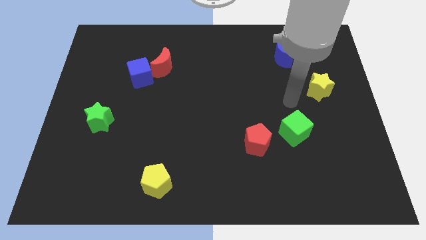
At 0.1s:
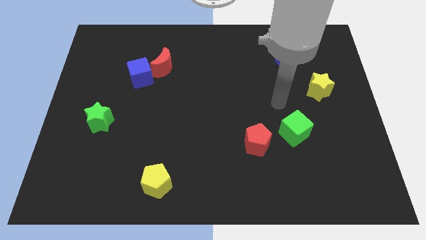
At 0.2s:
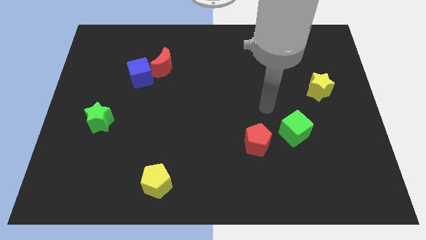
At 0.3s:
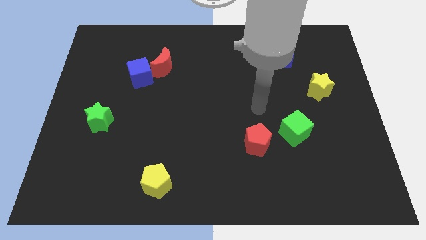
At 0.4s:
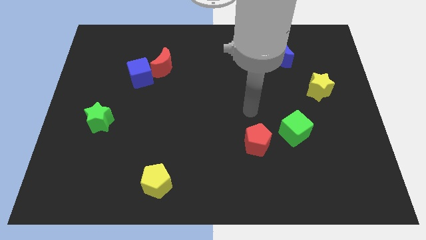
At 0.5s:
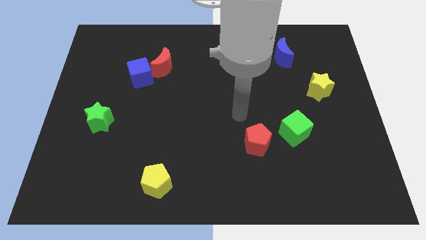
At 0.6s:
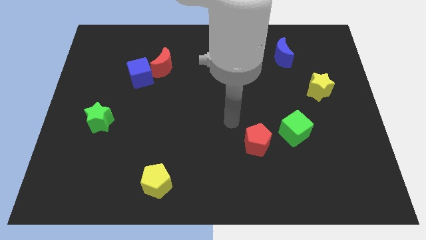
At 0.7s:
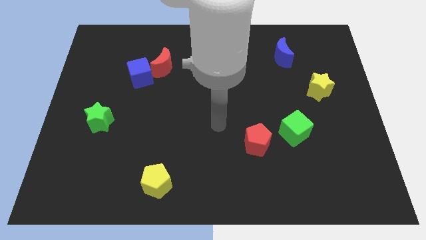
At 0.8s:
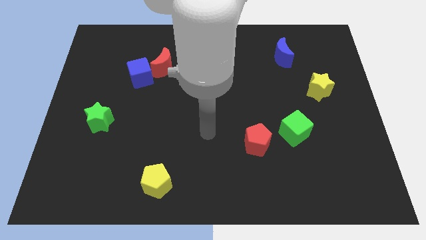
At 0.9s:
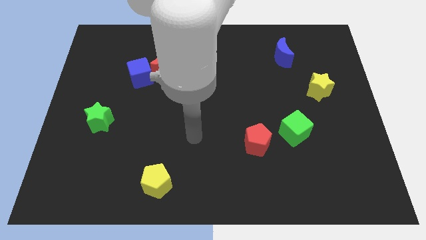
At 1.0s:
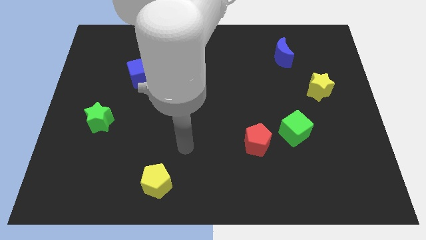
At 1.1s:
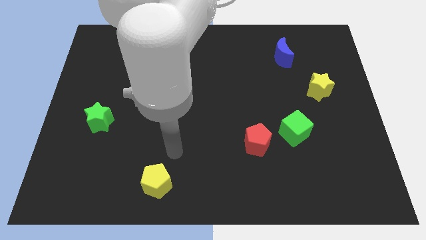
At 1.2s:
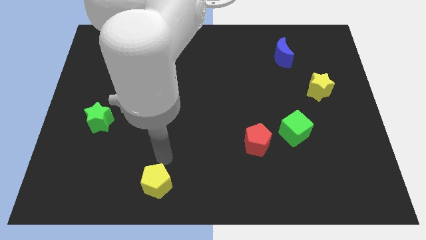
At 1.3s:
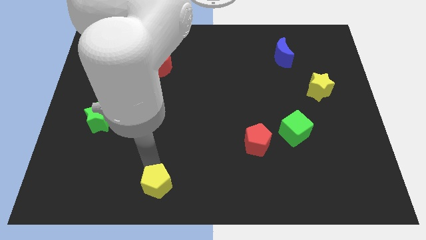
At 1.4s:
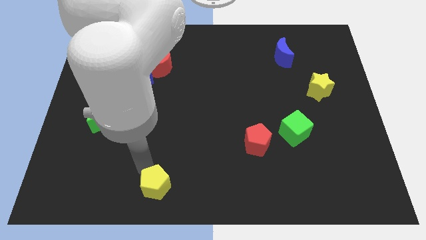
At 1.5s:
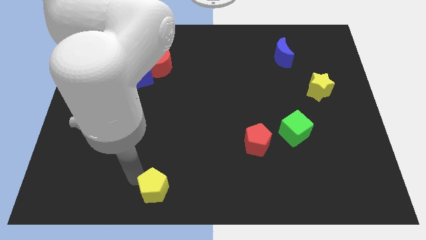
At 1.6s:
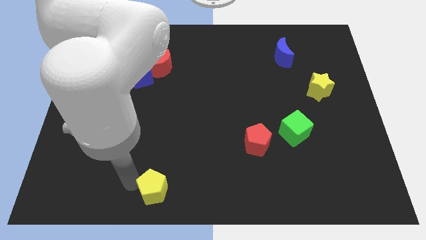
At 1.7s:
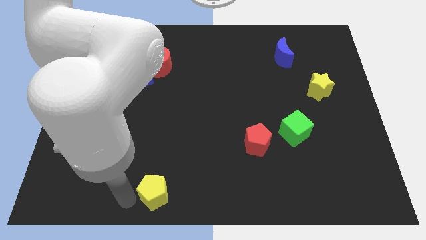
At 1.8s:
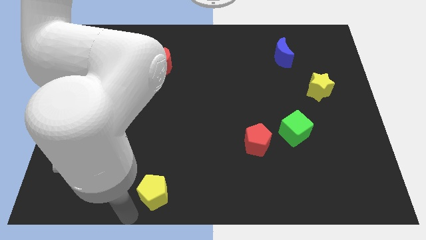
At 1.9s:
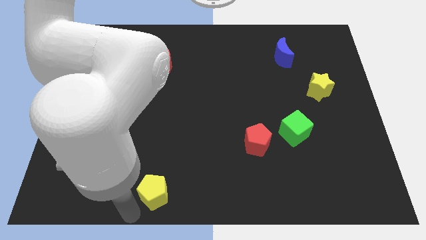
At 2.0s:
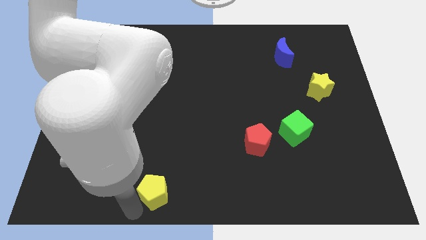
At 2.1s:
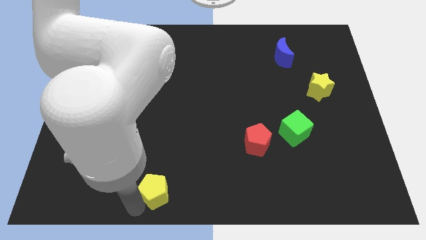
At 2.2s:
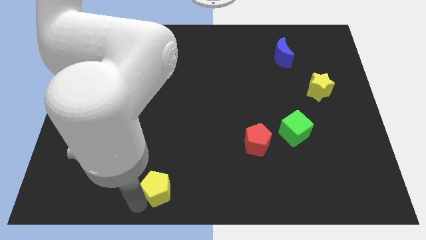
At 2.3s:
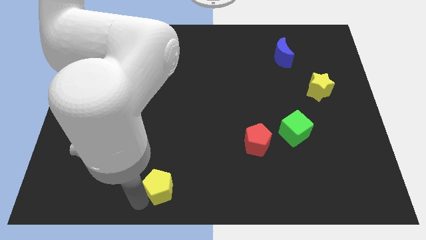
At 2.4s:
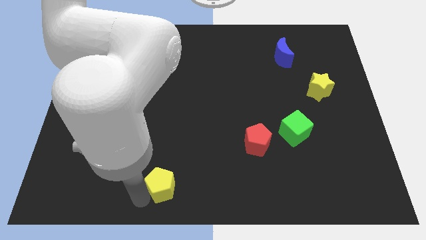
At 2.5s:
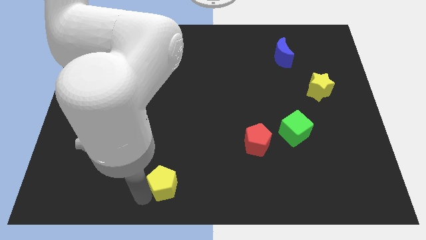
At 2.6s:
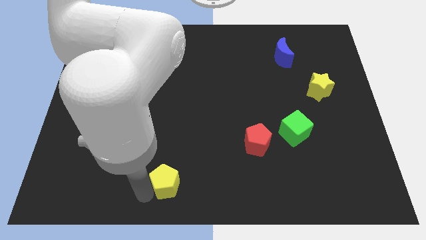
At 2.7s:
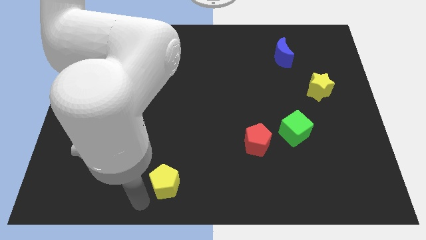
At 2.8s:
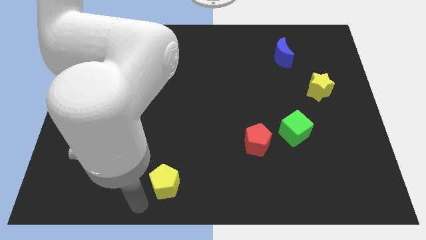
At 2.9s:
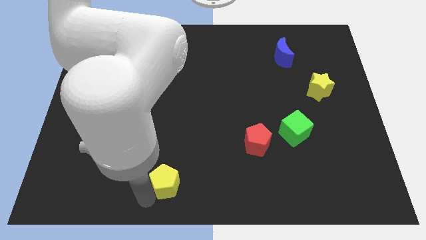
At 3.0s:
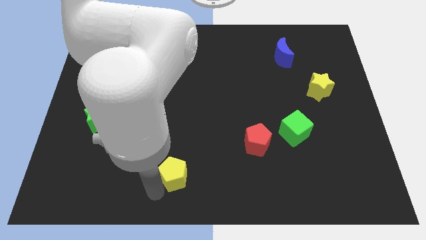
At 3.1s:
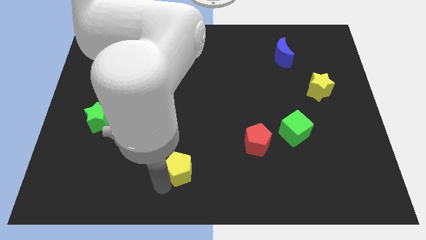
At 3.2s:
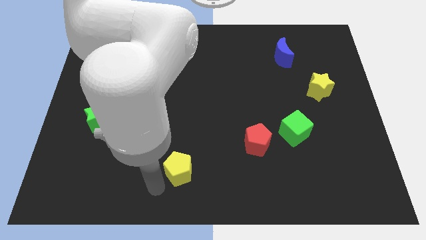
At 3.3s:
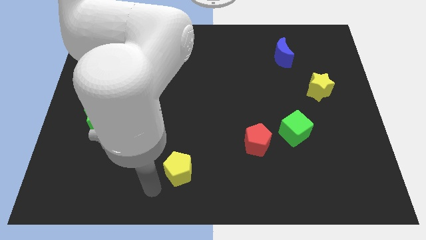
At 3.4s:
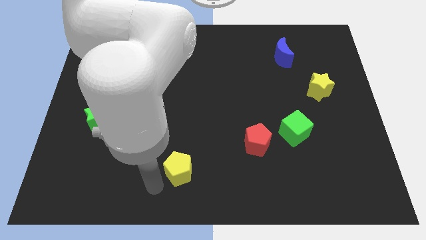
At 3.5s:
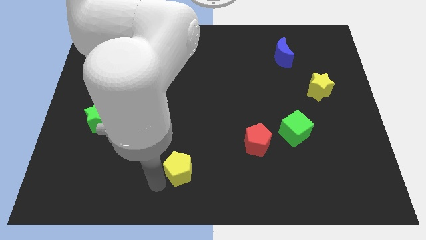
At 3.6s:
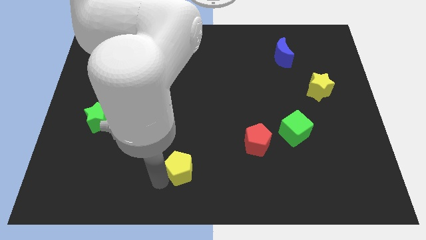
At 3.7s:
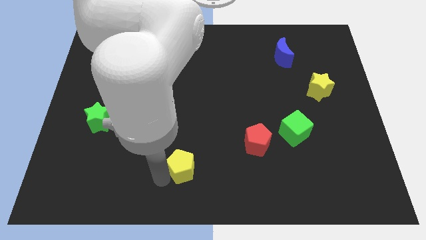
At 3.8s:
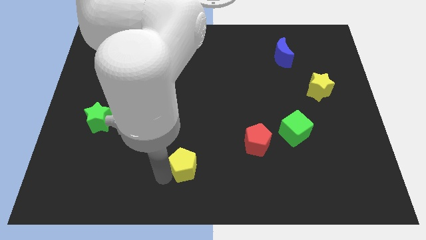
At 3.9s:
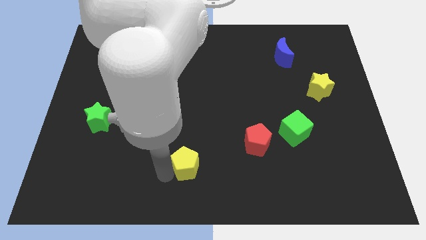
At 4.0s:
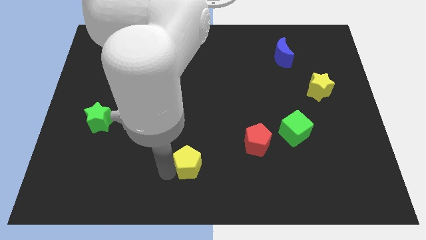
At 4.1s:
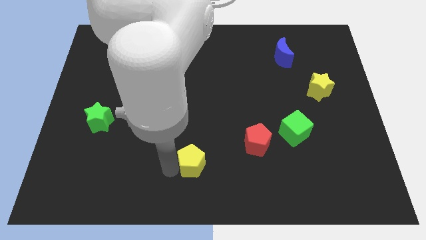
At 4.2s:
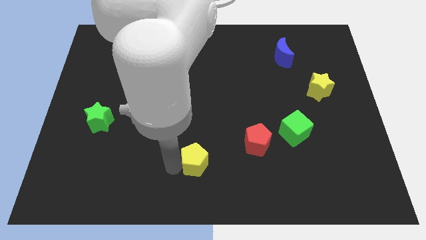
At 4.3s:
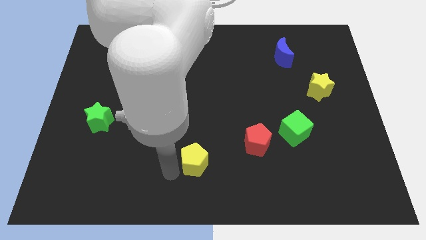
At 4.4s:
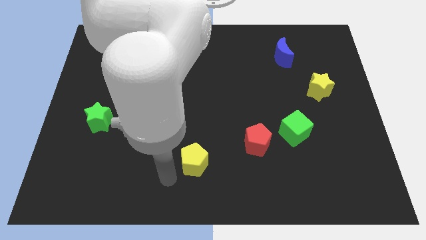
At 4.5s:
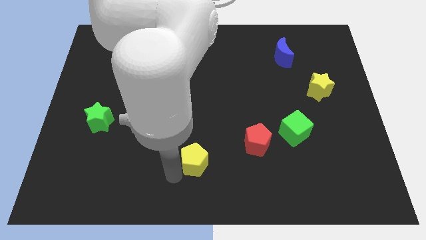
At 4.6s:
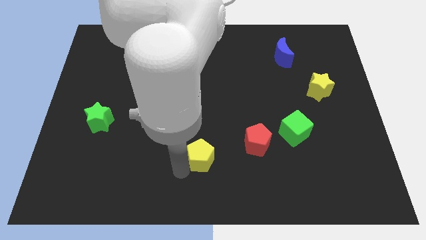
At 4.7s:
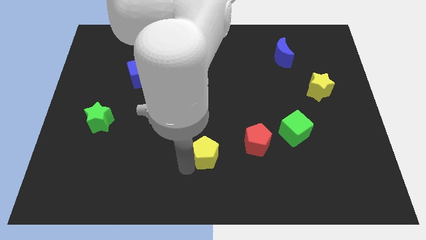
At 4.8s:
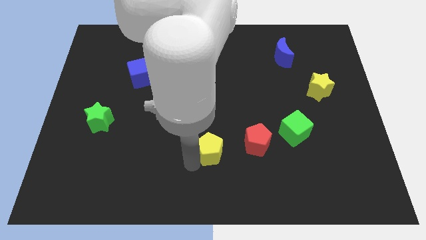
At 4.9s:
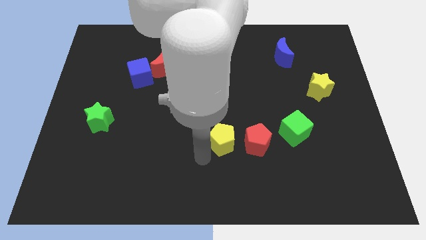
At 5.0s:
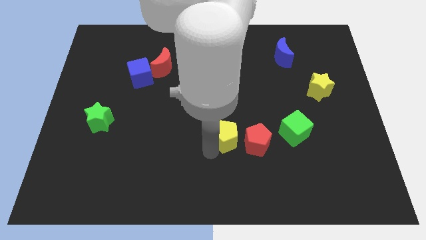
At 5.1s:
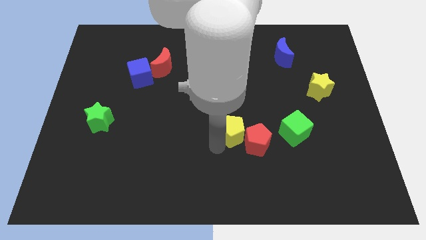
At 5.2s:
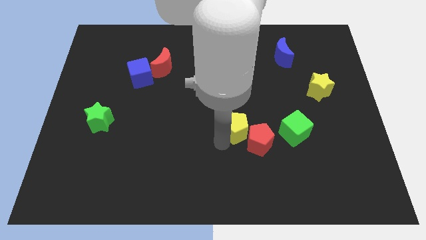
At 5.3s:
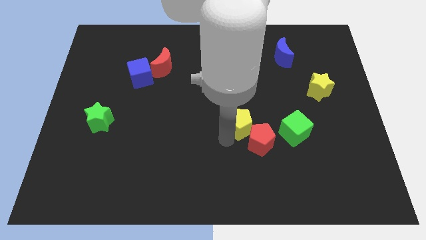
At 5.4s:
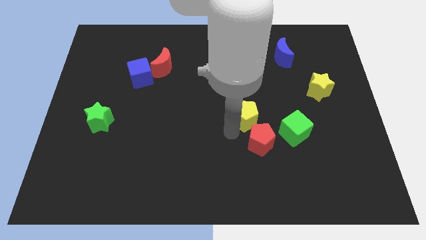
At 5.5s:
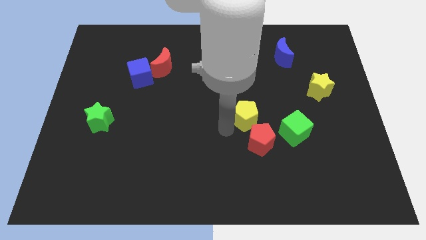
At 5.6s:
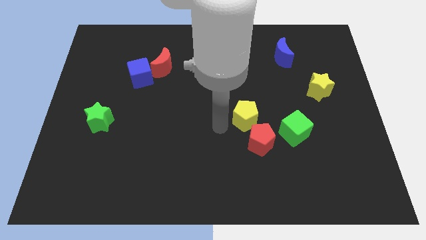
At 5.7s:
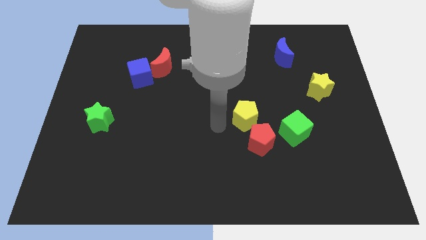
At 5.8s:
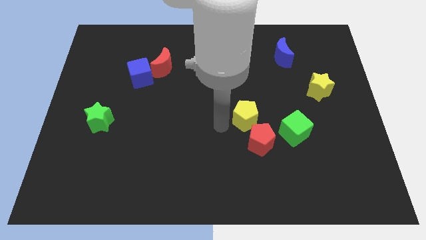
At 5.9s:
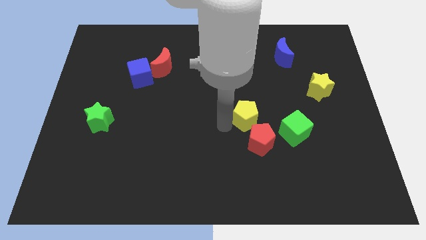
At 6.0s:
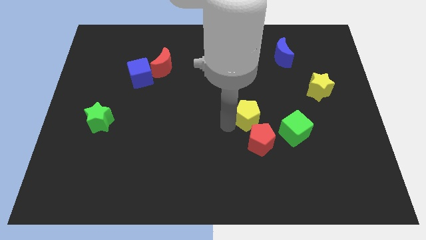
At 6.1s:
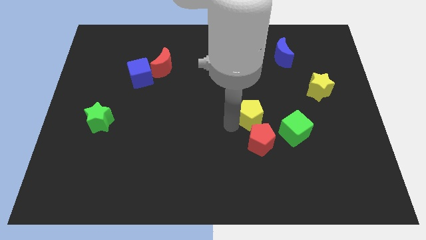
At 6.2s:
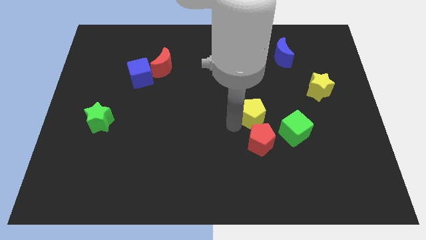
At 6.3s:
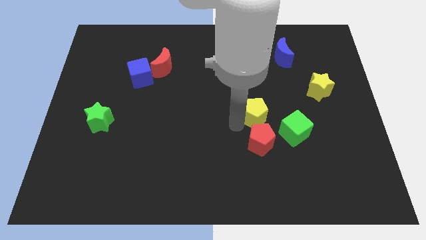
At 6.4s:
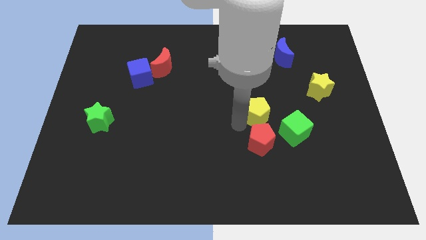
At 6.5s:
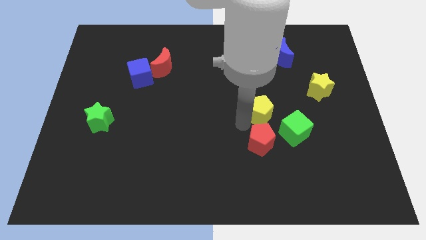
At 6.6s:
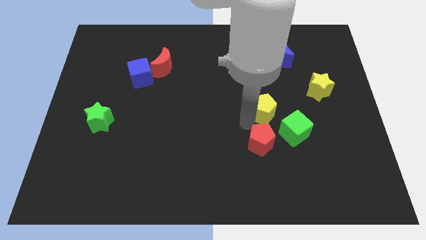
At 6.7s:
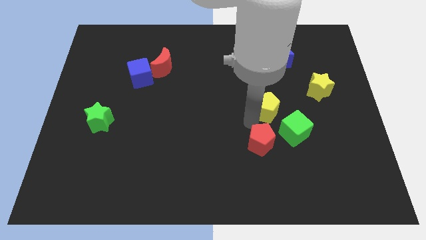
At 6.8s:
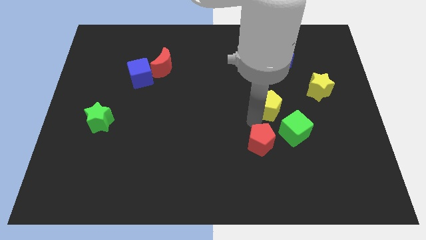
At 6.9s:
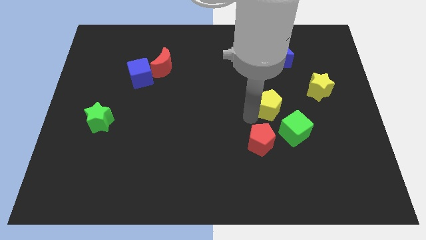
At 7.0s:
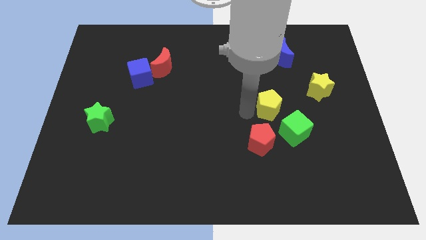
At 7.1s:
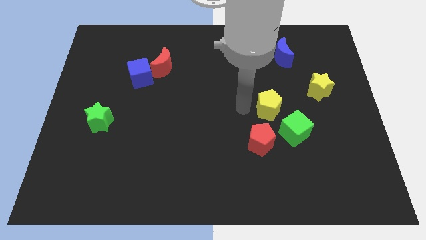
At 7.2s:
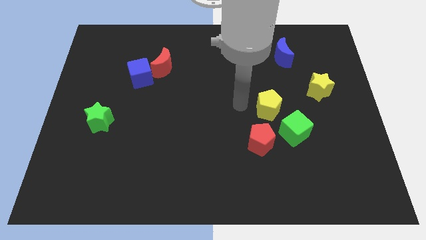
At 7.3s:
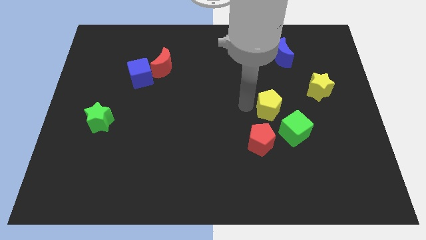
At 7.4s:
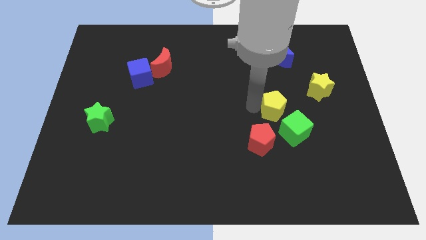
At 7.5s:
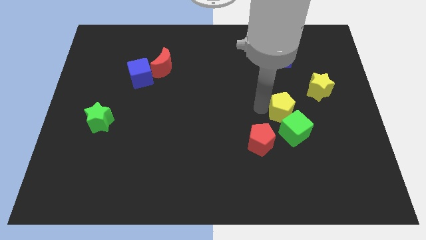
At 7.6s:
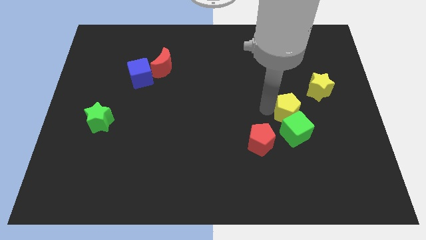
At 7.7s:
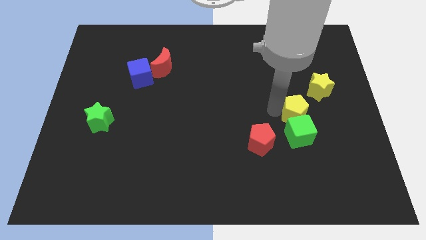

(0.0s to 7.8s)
slide the yellow pentagon to the top right side of the green cube

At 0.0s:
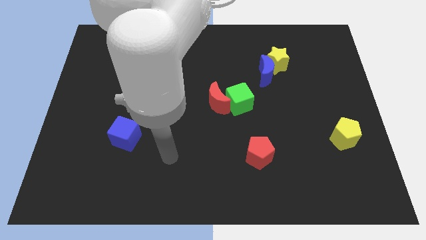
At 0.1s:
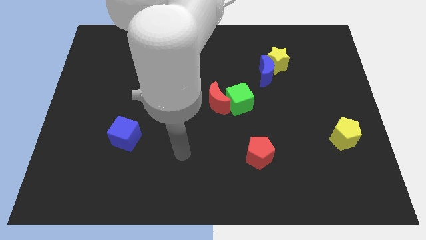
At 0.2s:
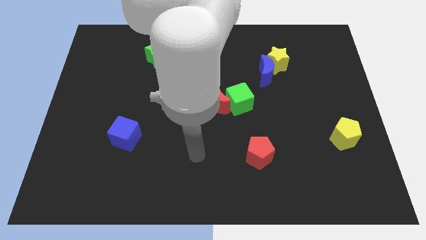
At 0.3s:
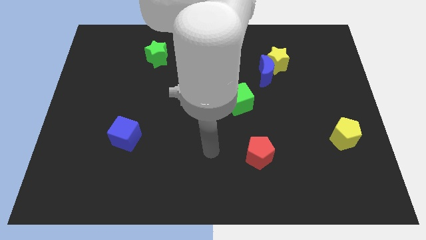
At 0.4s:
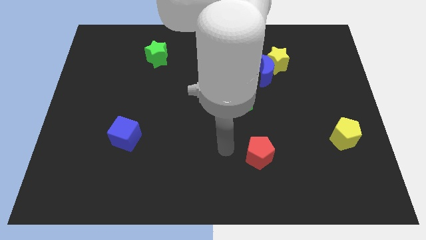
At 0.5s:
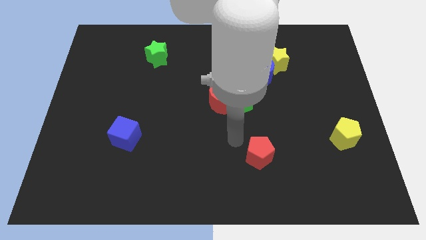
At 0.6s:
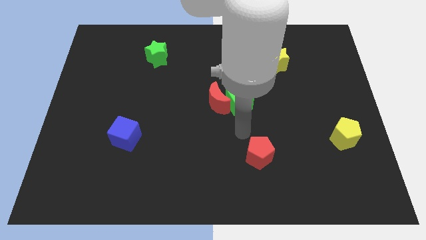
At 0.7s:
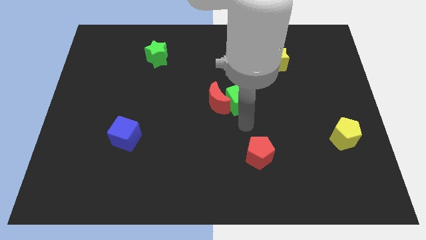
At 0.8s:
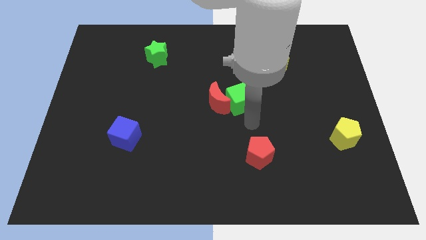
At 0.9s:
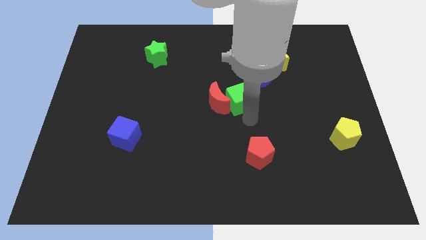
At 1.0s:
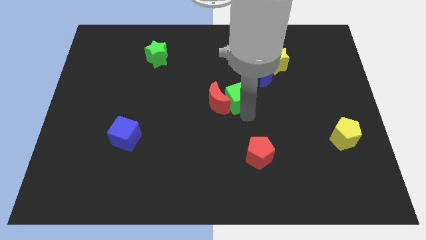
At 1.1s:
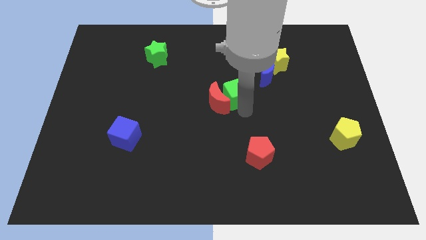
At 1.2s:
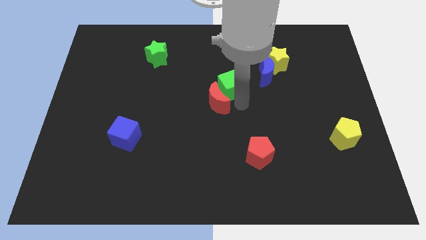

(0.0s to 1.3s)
move the green cube above the red moon
